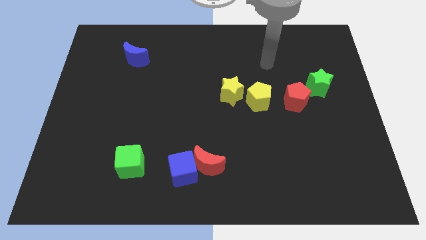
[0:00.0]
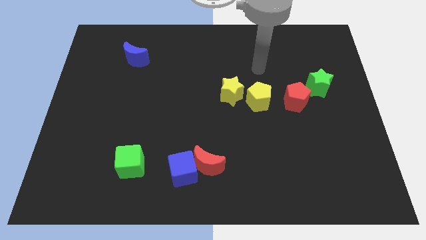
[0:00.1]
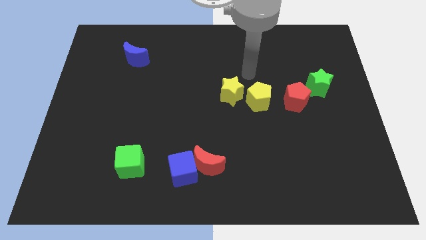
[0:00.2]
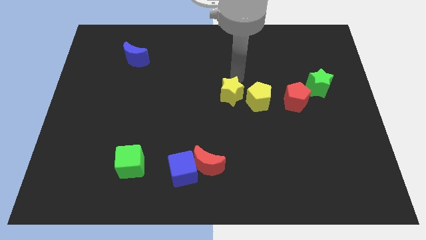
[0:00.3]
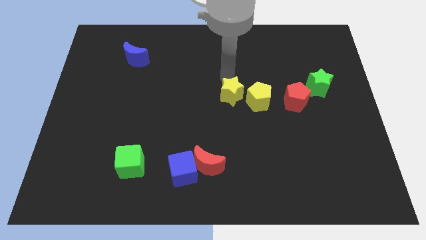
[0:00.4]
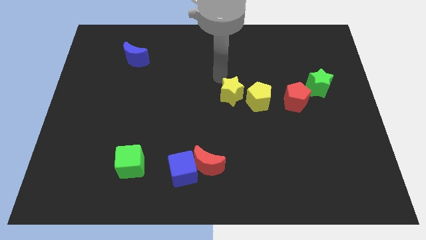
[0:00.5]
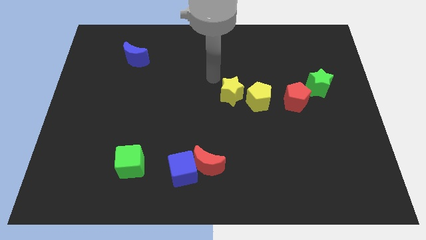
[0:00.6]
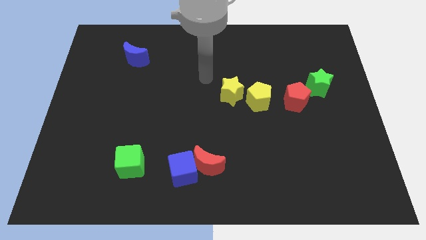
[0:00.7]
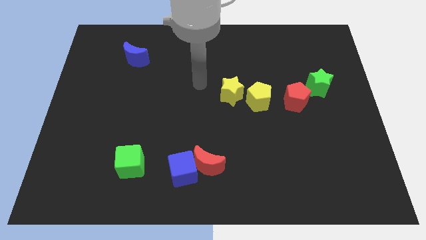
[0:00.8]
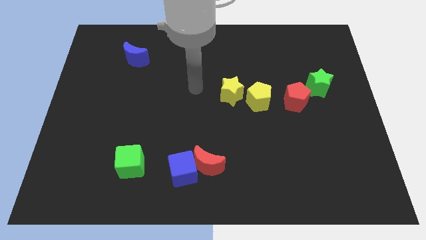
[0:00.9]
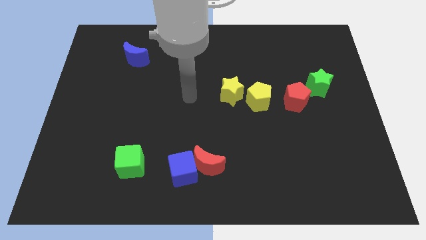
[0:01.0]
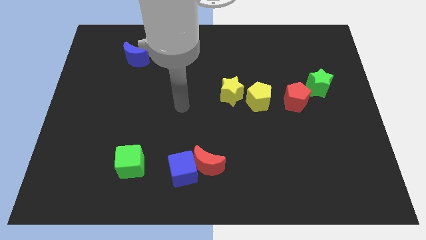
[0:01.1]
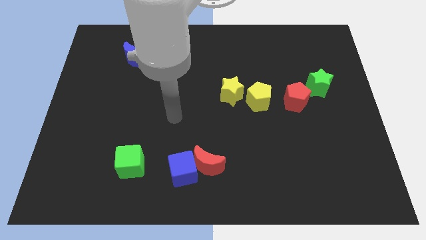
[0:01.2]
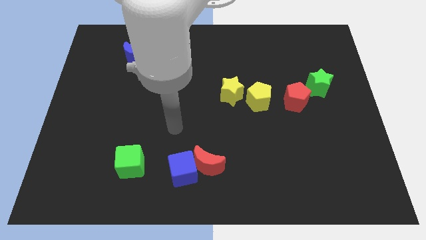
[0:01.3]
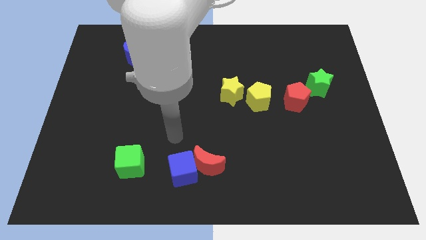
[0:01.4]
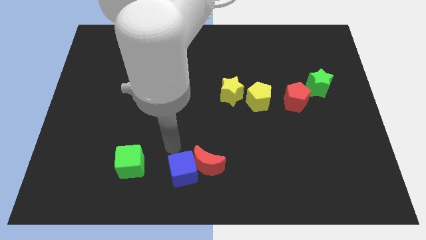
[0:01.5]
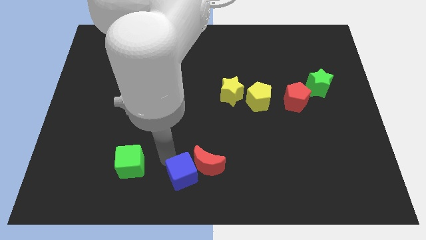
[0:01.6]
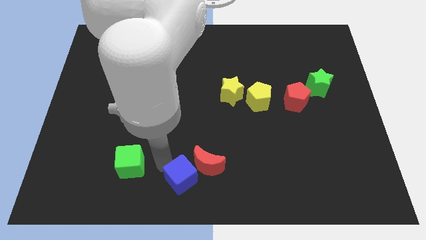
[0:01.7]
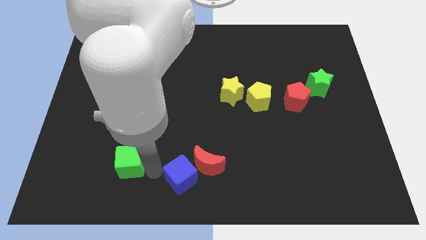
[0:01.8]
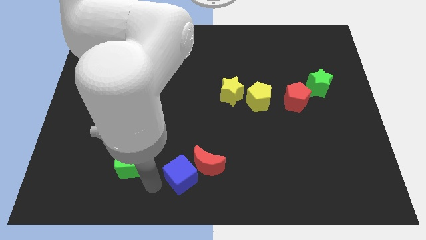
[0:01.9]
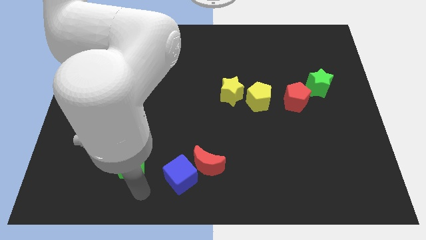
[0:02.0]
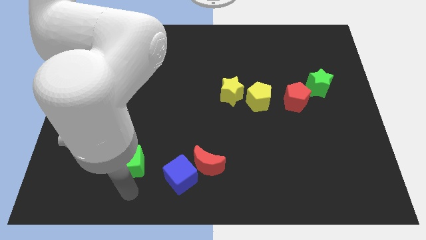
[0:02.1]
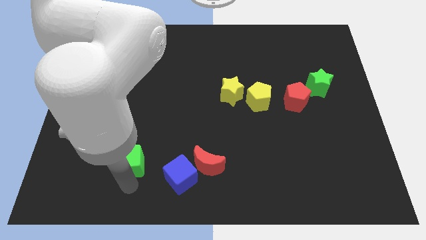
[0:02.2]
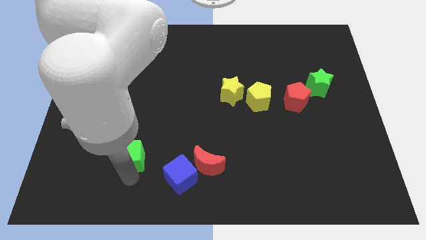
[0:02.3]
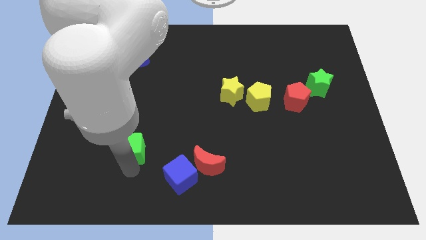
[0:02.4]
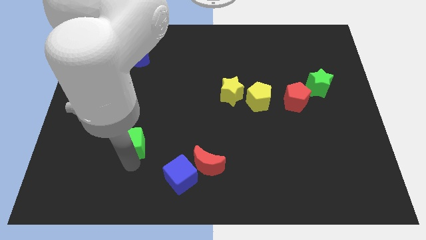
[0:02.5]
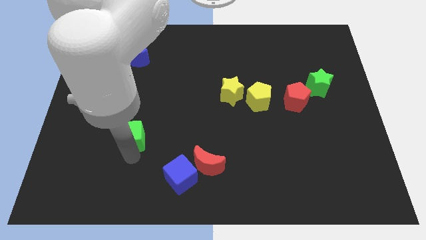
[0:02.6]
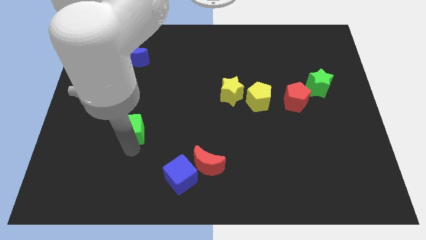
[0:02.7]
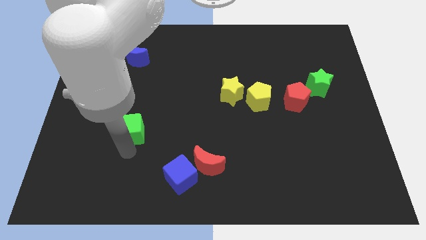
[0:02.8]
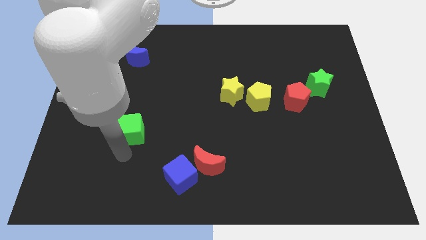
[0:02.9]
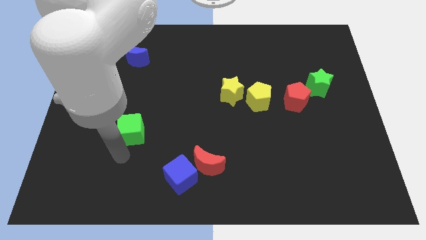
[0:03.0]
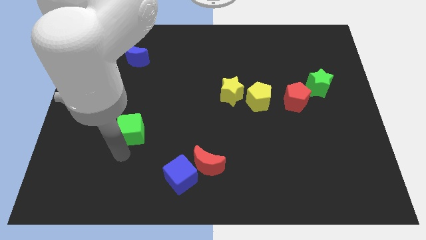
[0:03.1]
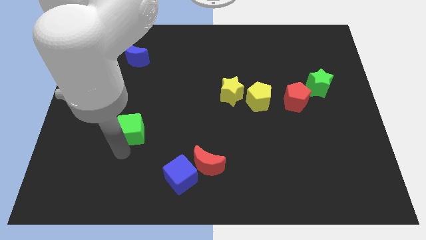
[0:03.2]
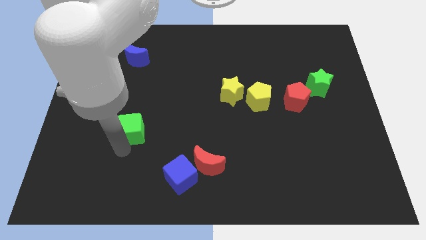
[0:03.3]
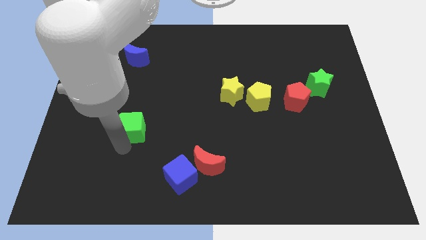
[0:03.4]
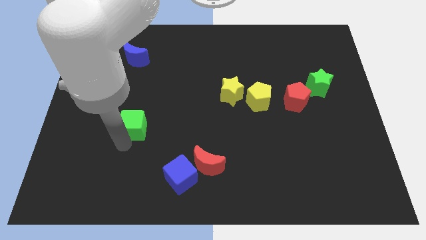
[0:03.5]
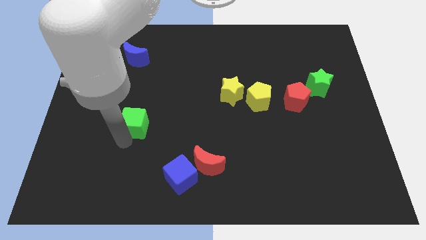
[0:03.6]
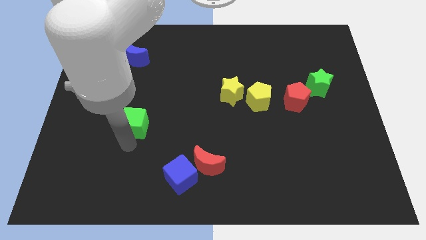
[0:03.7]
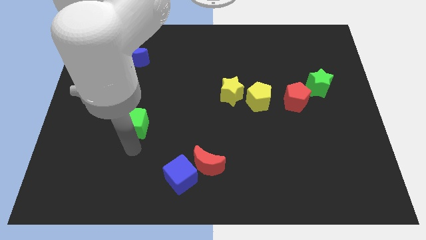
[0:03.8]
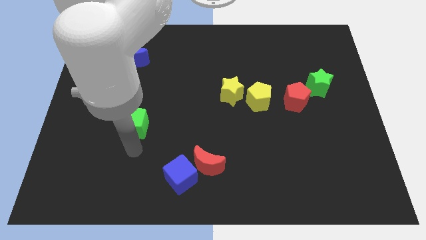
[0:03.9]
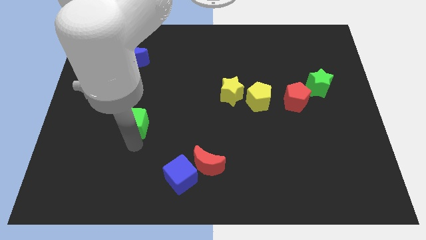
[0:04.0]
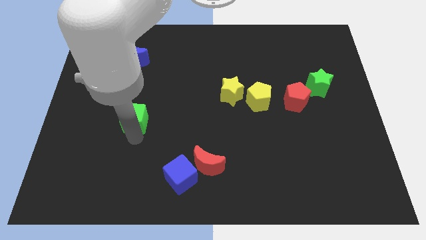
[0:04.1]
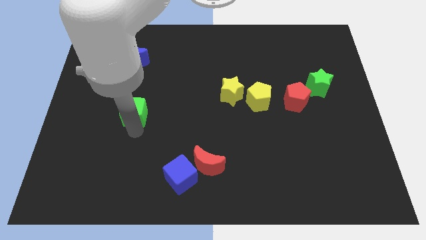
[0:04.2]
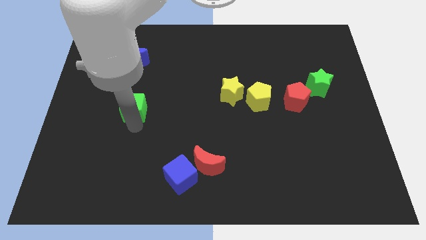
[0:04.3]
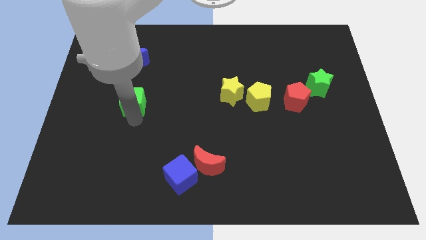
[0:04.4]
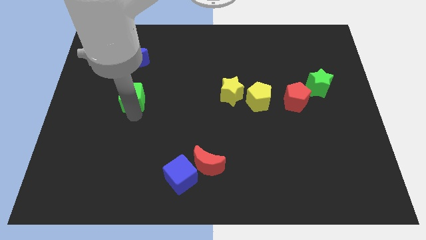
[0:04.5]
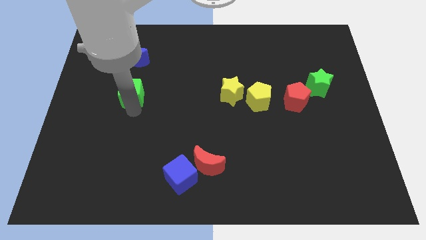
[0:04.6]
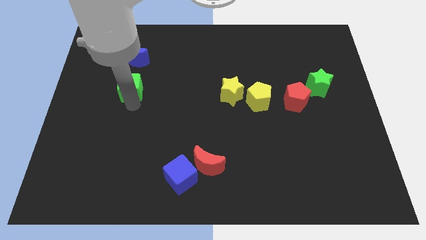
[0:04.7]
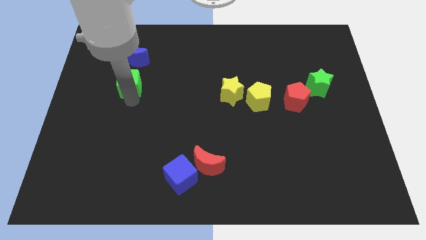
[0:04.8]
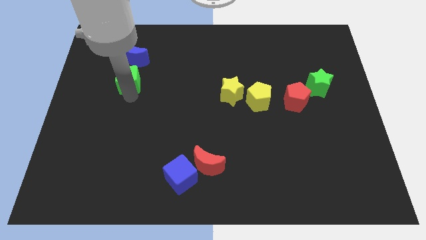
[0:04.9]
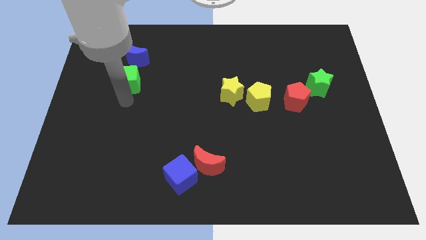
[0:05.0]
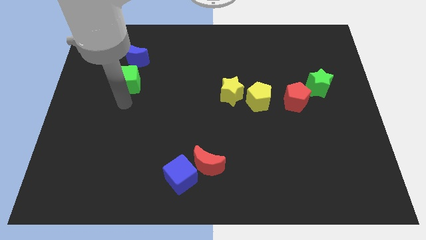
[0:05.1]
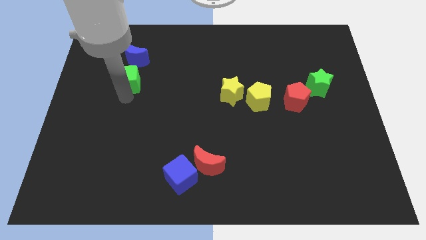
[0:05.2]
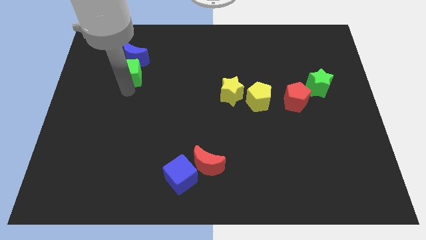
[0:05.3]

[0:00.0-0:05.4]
slide the green cube next to the blue moon

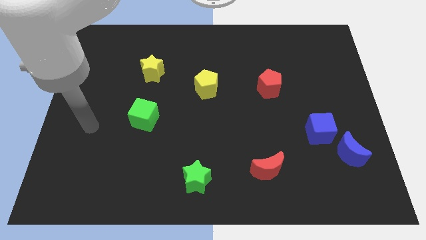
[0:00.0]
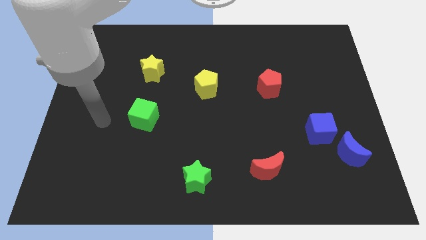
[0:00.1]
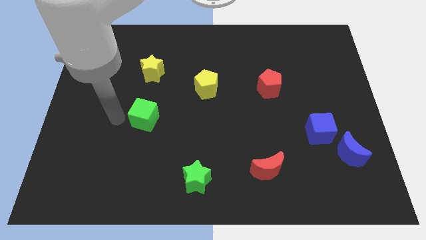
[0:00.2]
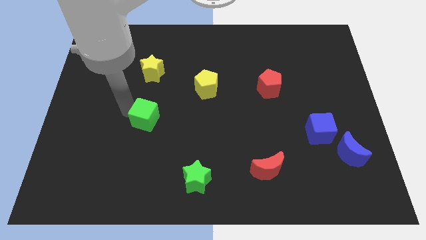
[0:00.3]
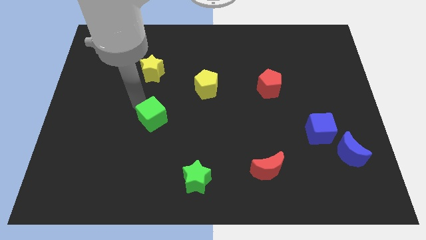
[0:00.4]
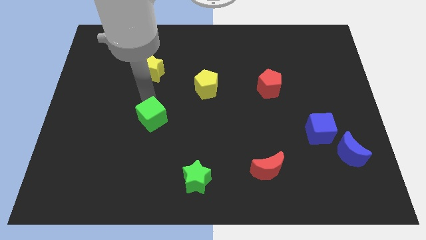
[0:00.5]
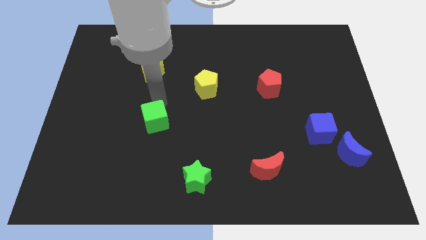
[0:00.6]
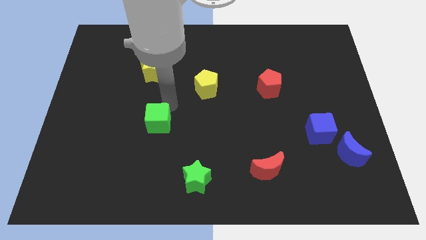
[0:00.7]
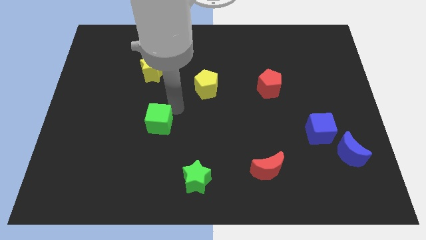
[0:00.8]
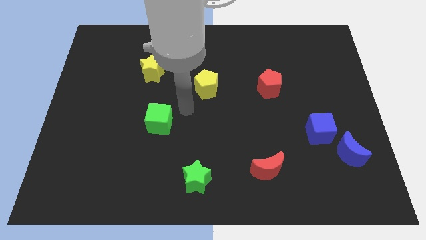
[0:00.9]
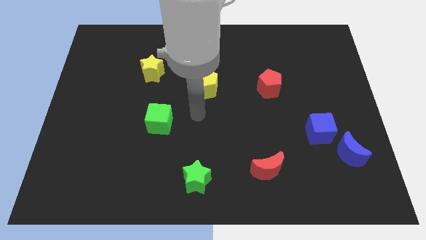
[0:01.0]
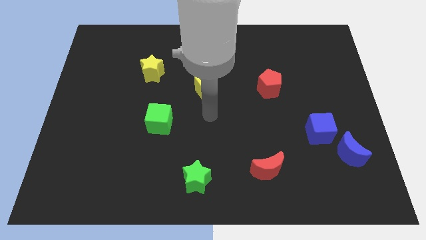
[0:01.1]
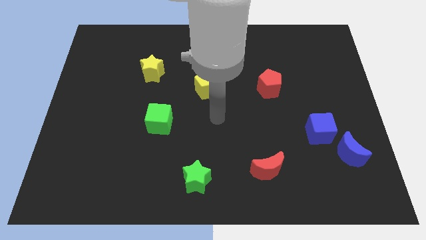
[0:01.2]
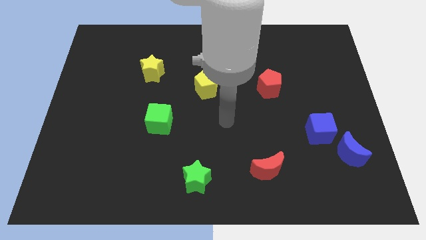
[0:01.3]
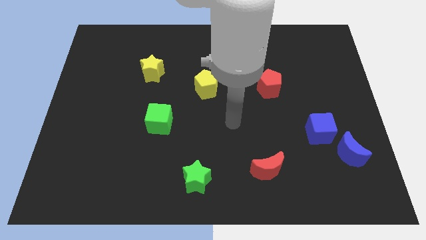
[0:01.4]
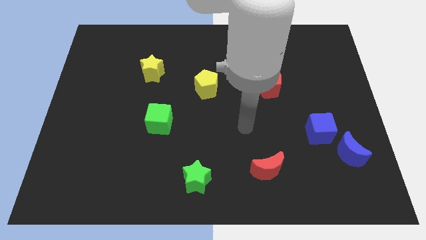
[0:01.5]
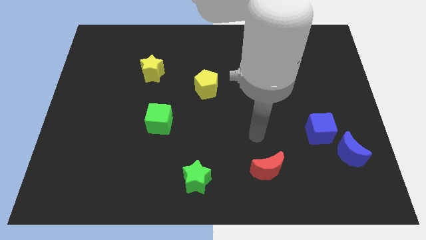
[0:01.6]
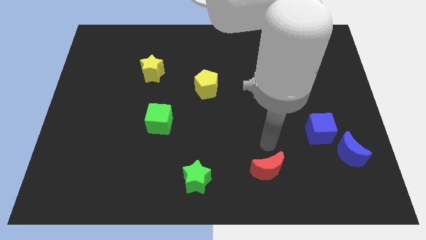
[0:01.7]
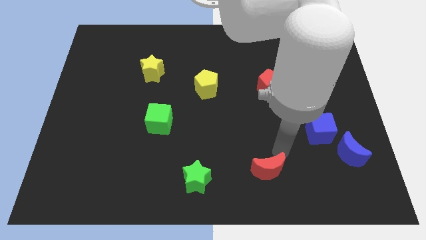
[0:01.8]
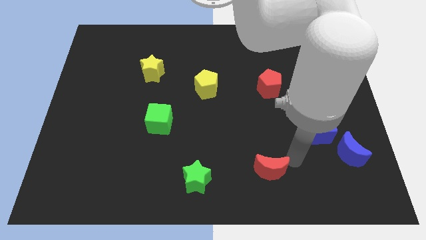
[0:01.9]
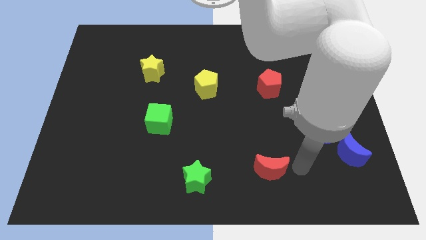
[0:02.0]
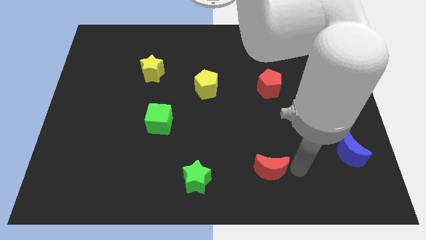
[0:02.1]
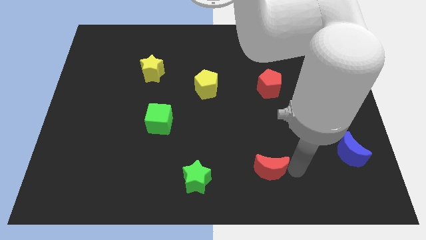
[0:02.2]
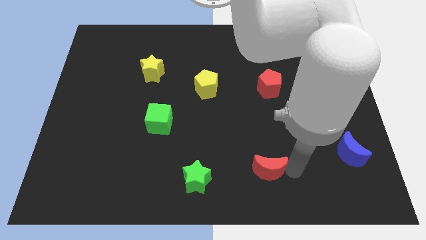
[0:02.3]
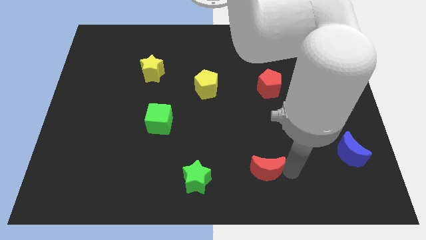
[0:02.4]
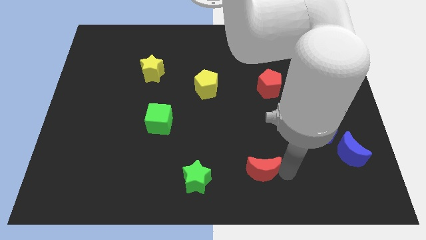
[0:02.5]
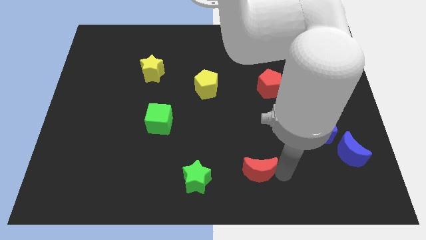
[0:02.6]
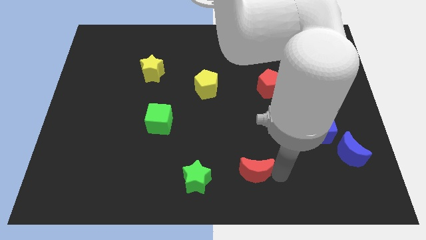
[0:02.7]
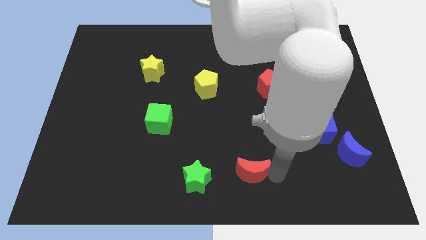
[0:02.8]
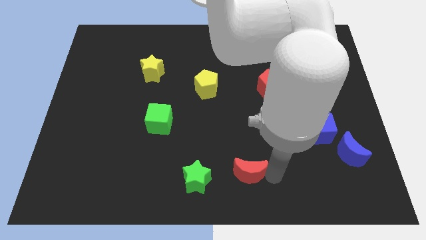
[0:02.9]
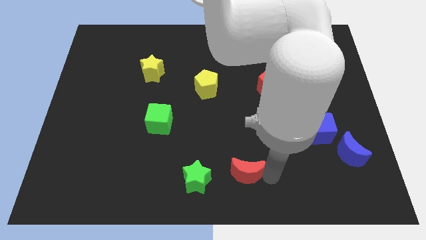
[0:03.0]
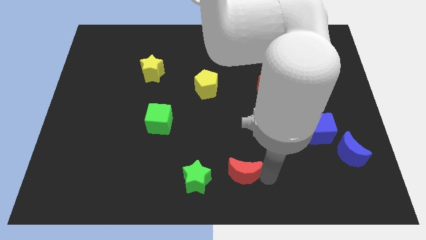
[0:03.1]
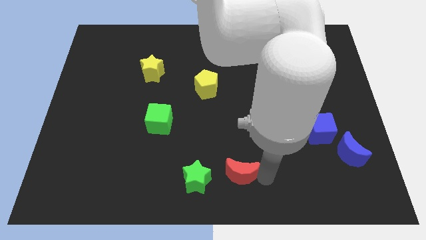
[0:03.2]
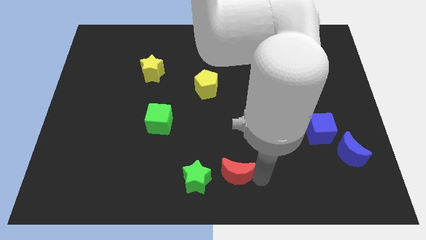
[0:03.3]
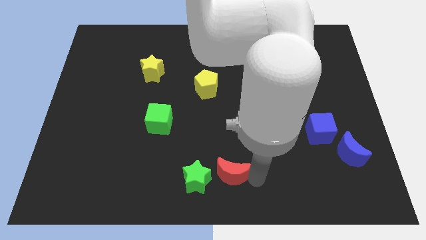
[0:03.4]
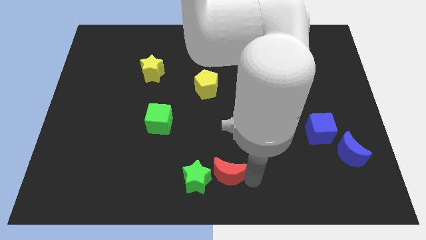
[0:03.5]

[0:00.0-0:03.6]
slide the red moon towards the green star
